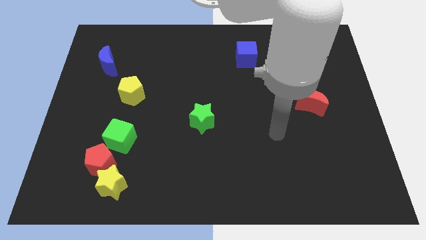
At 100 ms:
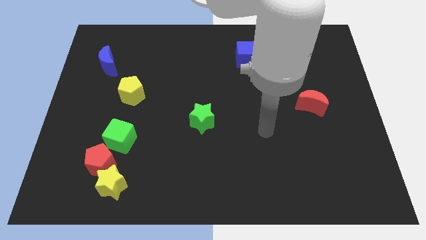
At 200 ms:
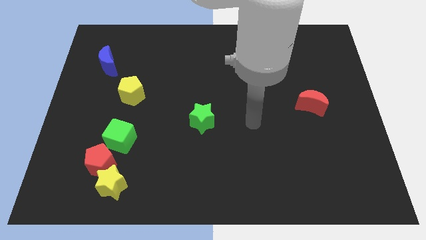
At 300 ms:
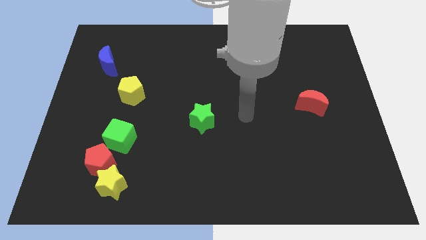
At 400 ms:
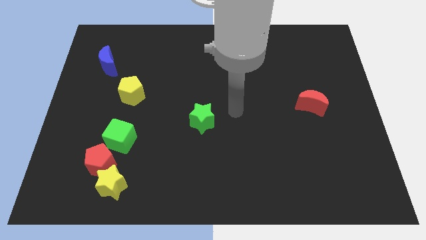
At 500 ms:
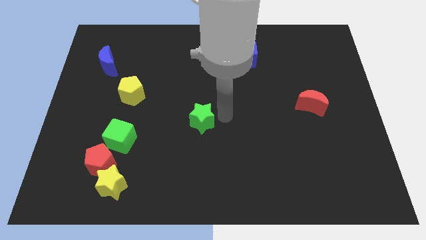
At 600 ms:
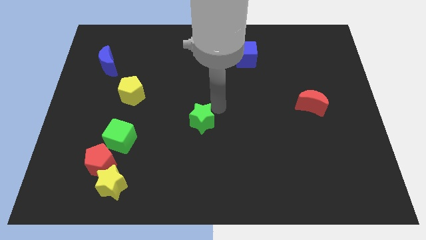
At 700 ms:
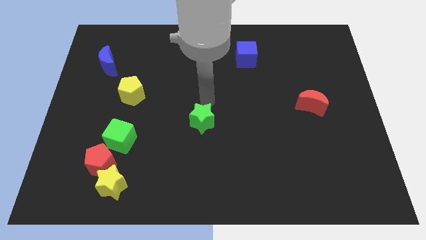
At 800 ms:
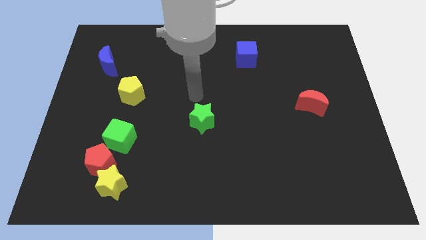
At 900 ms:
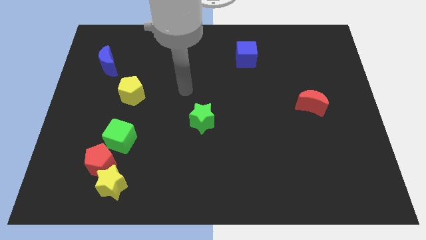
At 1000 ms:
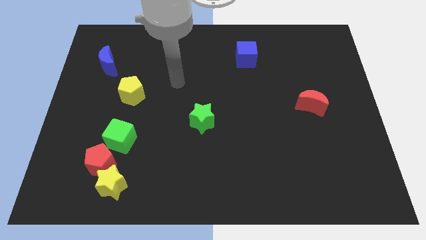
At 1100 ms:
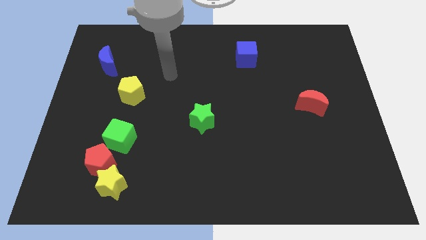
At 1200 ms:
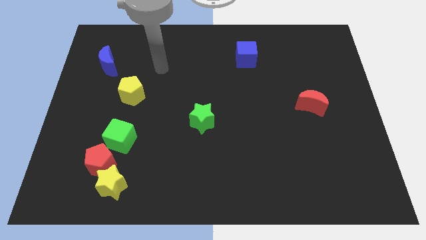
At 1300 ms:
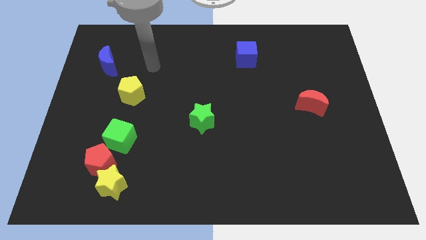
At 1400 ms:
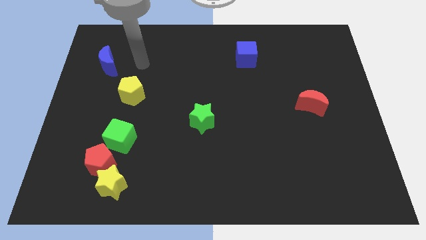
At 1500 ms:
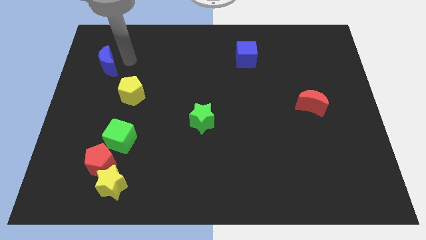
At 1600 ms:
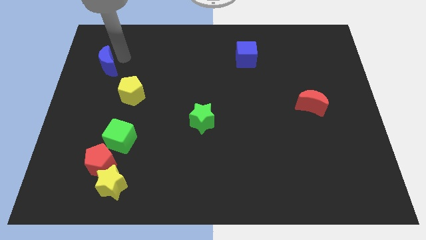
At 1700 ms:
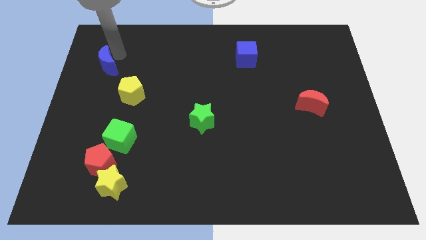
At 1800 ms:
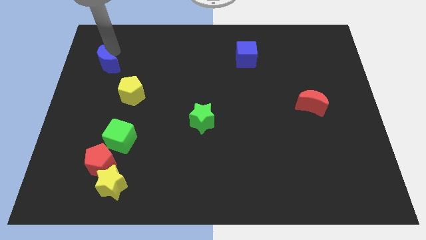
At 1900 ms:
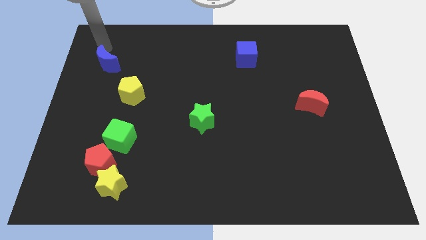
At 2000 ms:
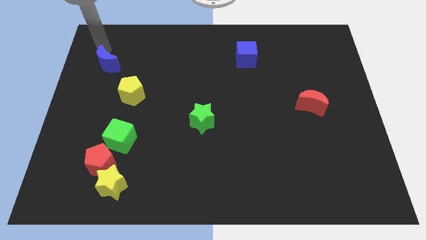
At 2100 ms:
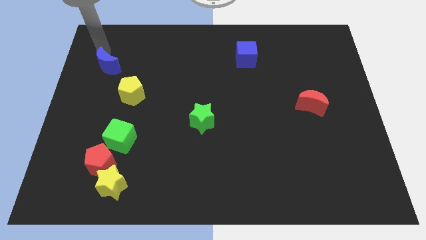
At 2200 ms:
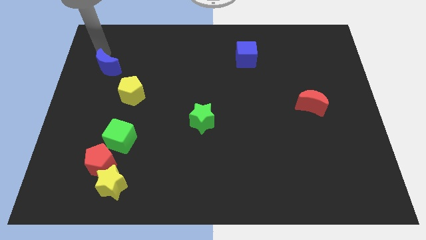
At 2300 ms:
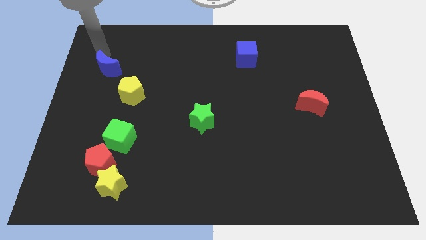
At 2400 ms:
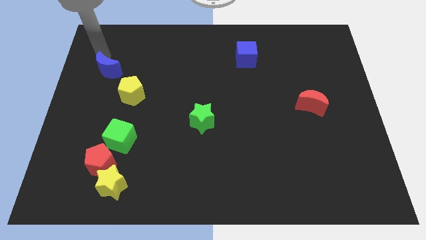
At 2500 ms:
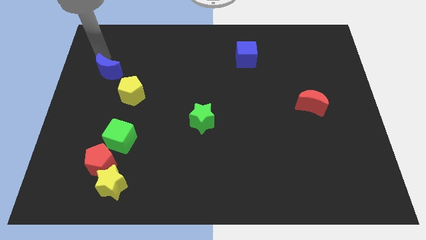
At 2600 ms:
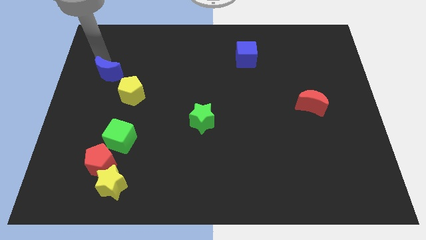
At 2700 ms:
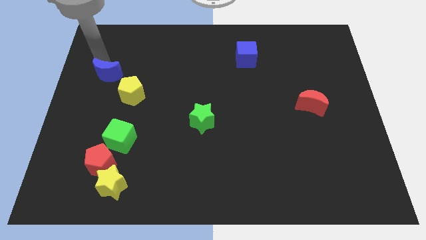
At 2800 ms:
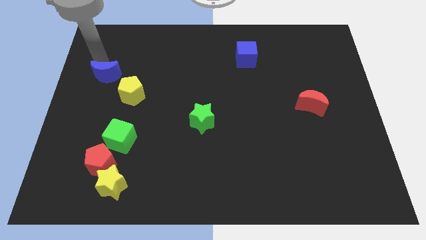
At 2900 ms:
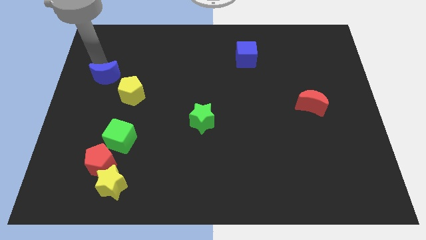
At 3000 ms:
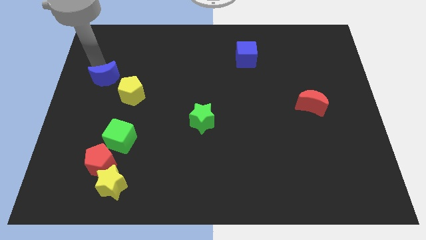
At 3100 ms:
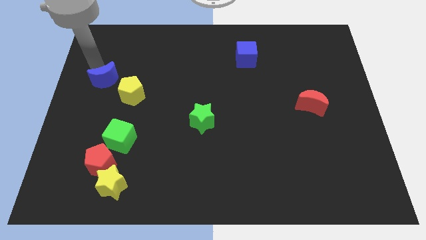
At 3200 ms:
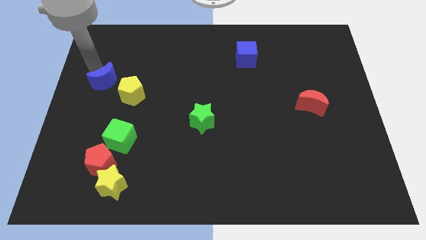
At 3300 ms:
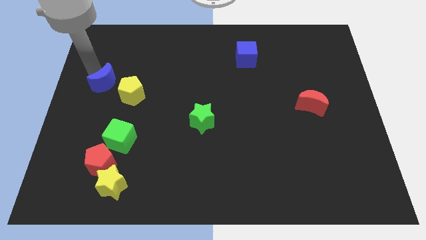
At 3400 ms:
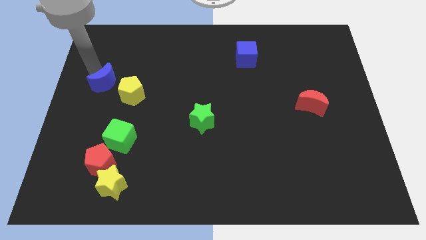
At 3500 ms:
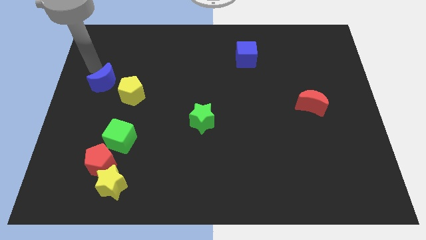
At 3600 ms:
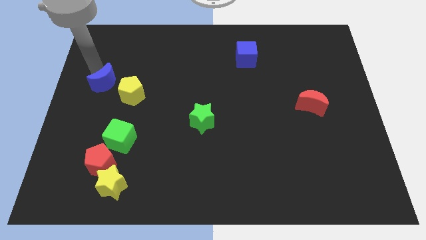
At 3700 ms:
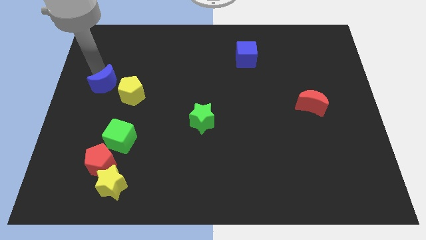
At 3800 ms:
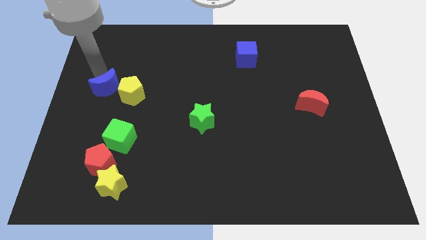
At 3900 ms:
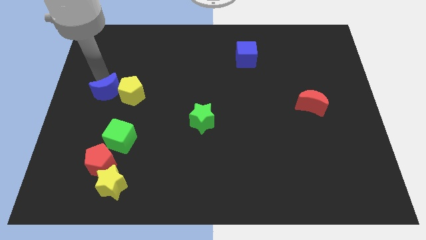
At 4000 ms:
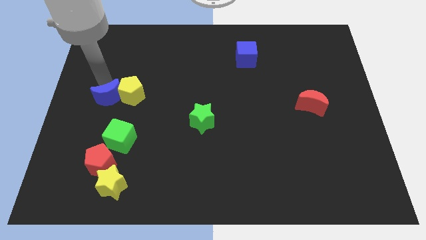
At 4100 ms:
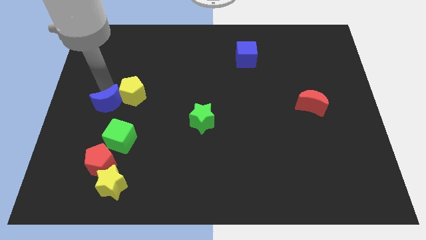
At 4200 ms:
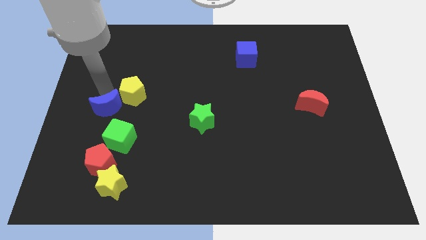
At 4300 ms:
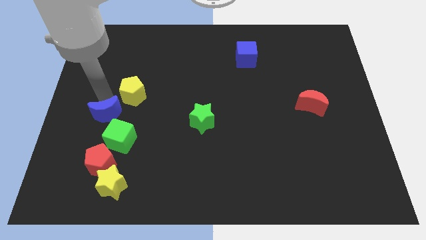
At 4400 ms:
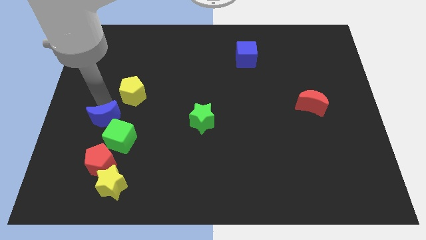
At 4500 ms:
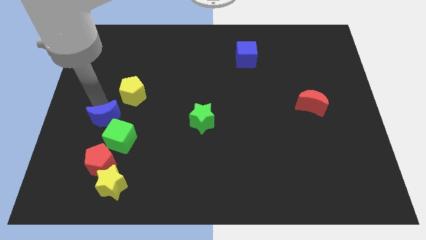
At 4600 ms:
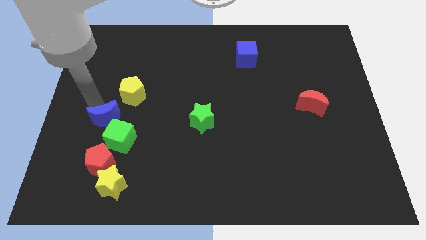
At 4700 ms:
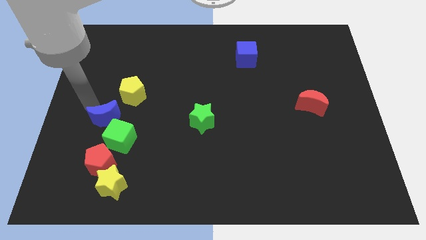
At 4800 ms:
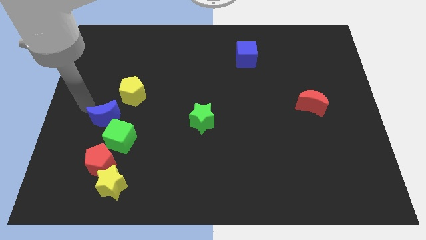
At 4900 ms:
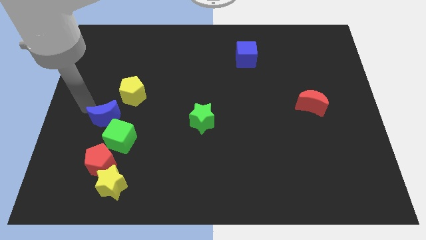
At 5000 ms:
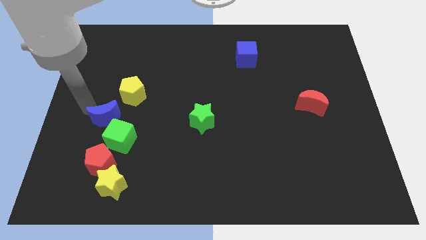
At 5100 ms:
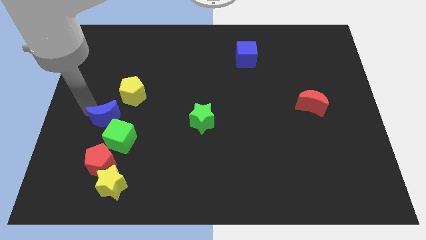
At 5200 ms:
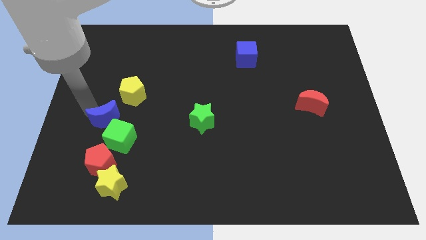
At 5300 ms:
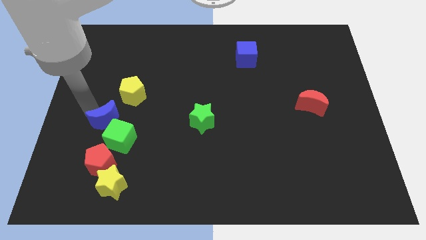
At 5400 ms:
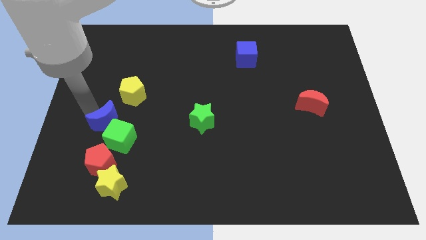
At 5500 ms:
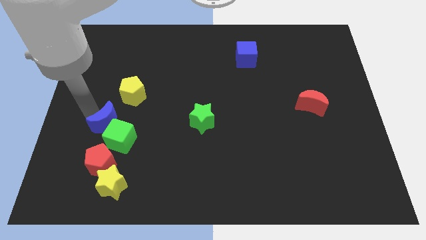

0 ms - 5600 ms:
put the blue moon to the green cube

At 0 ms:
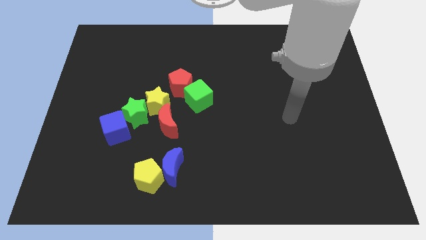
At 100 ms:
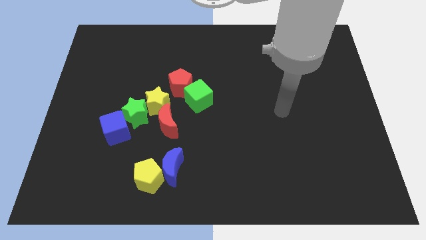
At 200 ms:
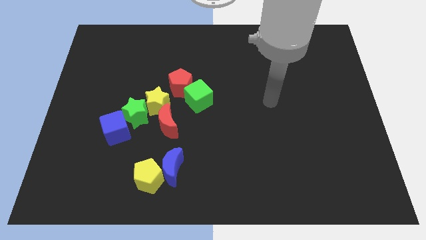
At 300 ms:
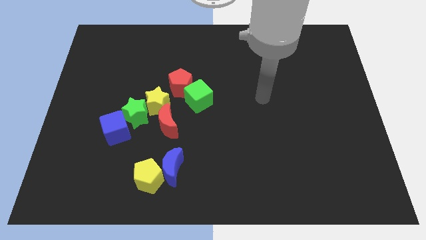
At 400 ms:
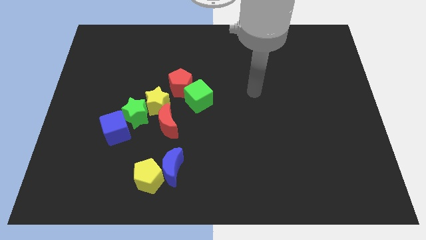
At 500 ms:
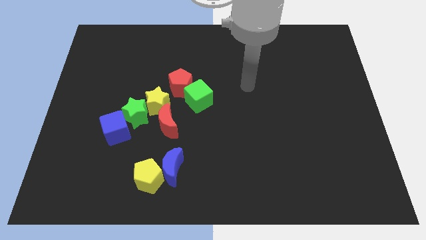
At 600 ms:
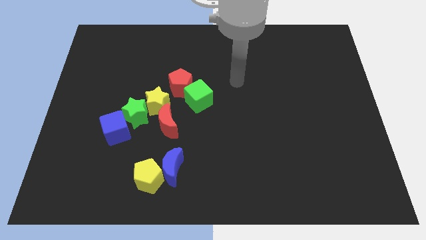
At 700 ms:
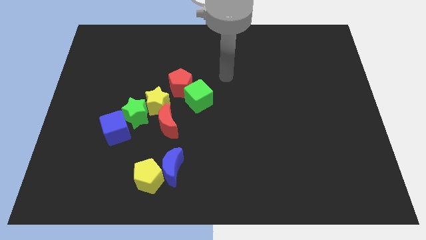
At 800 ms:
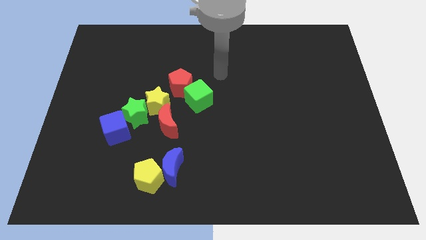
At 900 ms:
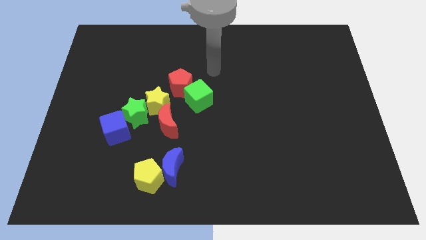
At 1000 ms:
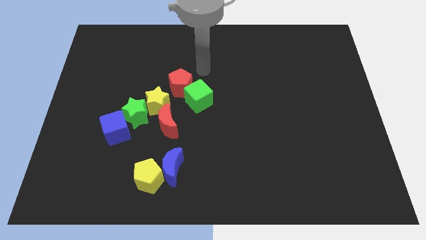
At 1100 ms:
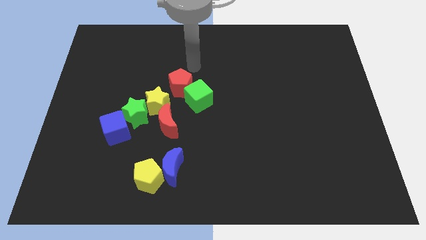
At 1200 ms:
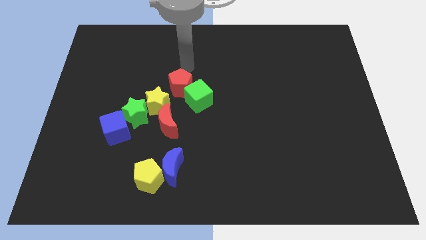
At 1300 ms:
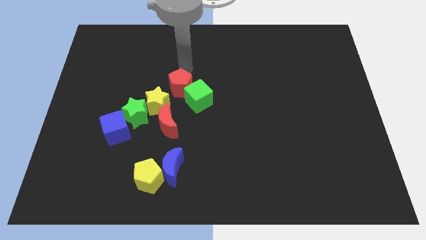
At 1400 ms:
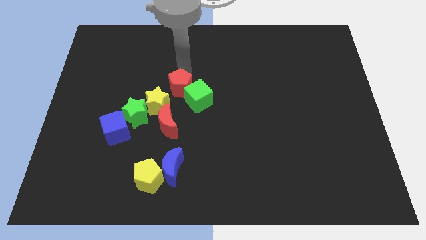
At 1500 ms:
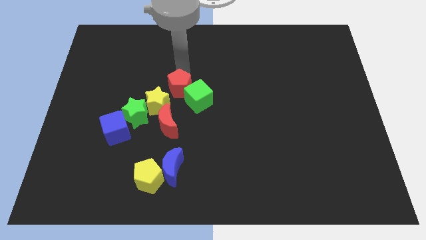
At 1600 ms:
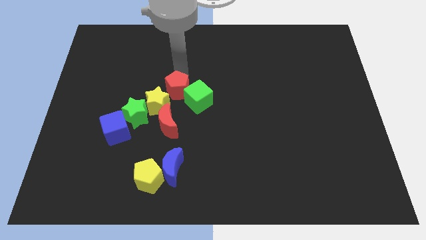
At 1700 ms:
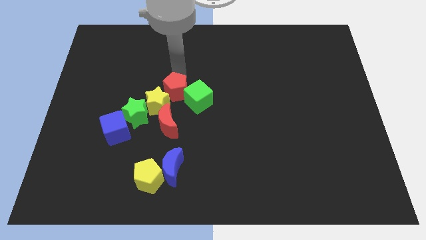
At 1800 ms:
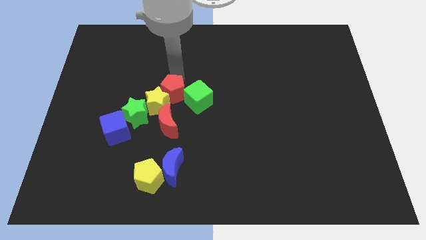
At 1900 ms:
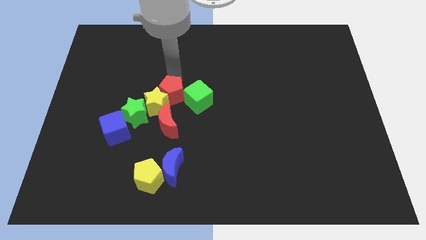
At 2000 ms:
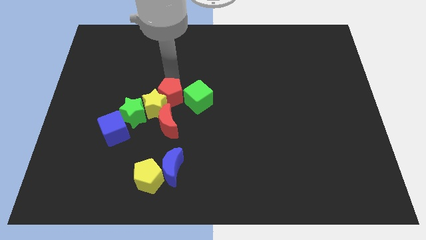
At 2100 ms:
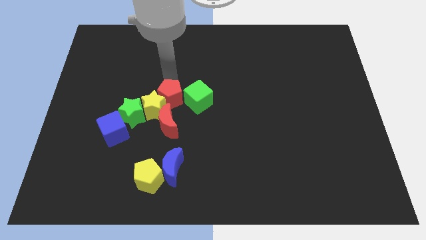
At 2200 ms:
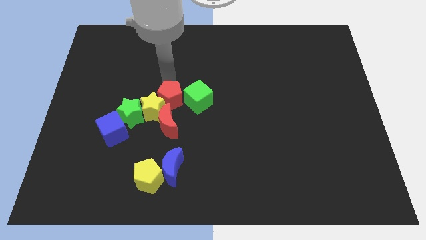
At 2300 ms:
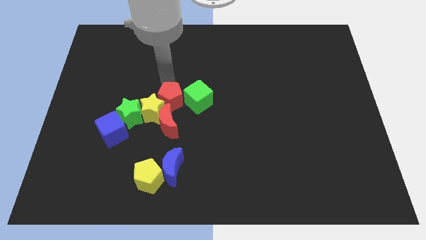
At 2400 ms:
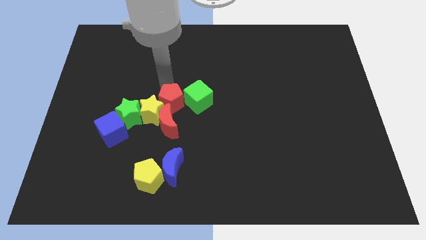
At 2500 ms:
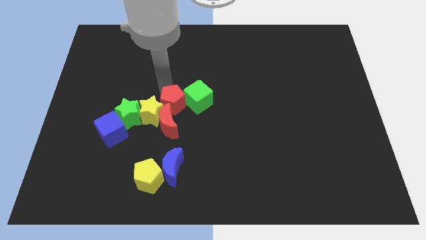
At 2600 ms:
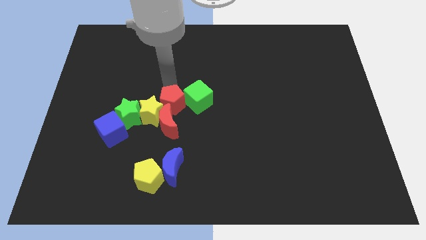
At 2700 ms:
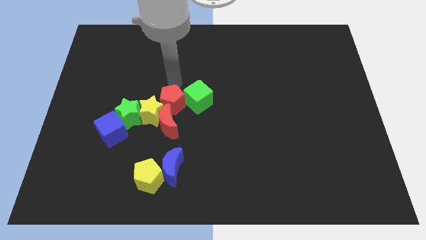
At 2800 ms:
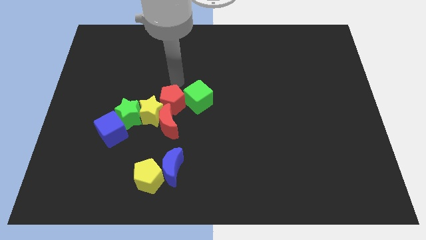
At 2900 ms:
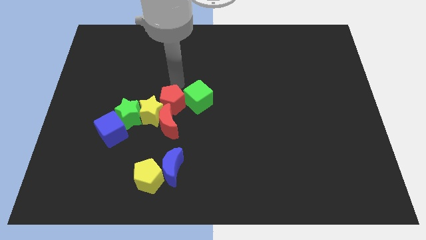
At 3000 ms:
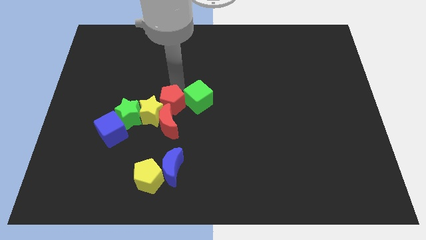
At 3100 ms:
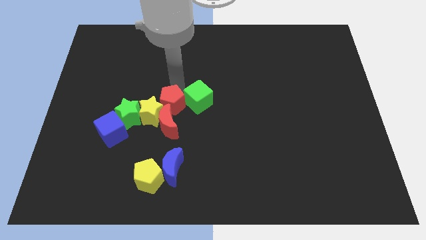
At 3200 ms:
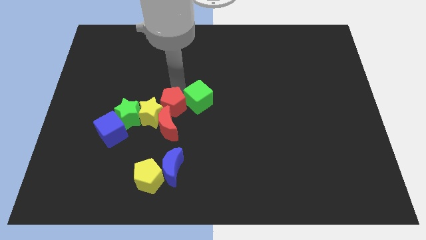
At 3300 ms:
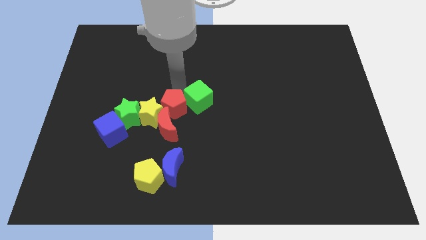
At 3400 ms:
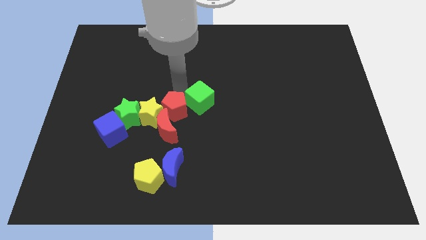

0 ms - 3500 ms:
slide the red pentagon next to the red moon
